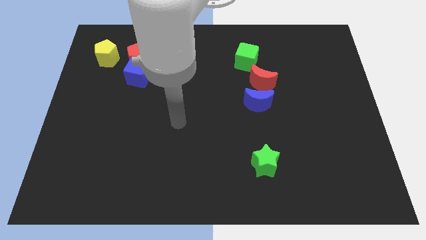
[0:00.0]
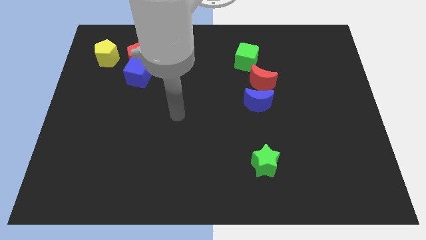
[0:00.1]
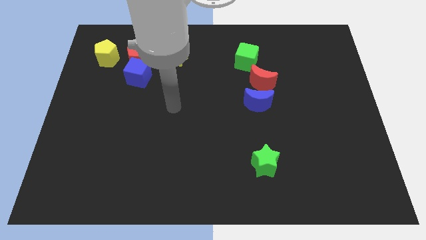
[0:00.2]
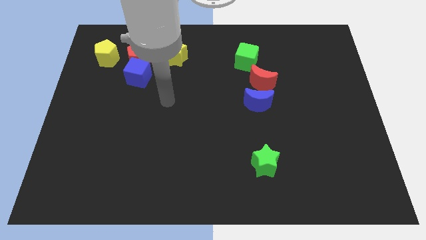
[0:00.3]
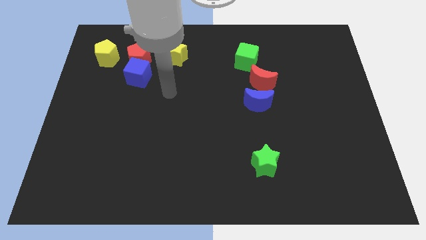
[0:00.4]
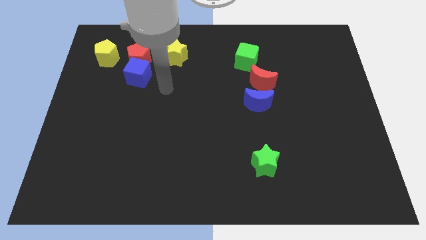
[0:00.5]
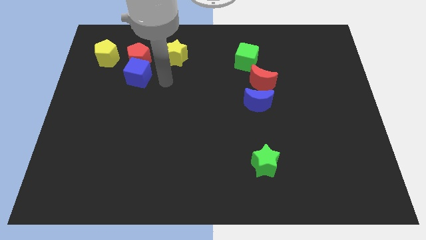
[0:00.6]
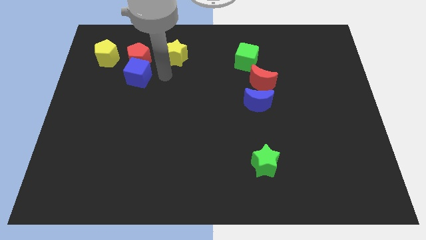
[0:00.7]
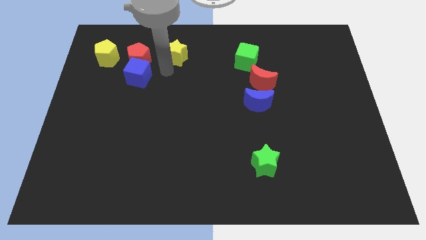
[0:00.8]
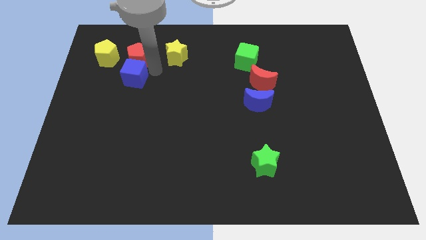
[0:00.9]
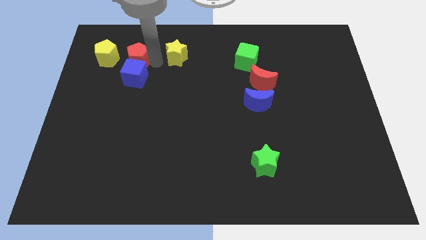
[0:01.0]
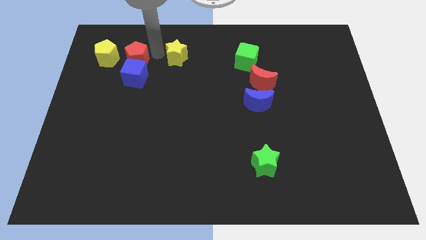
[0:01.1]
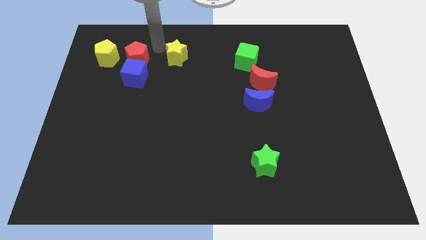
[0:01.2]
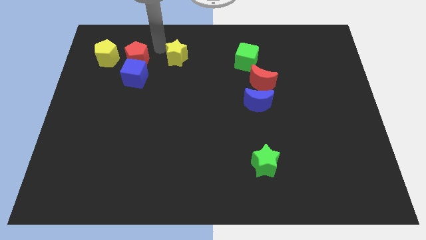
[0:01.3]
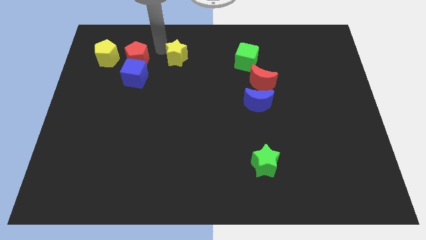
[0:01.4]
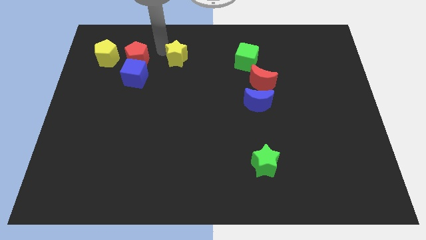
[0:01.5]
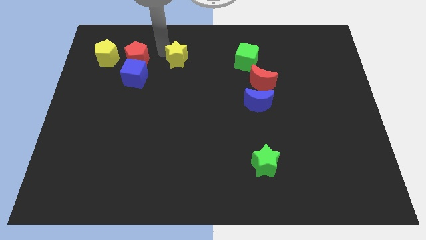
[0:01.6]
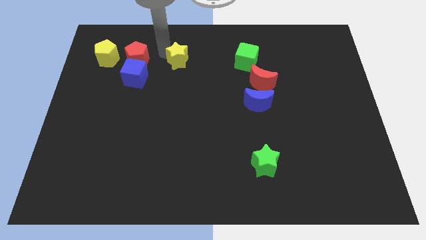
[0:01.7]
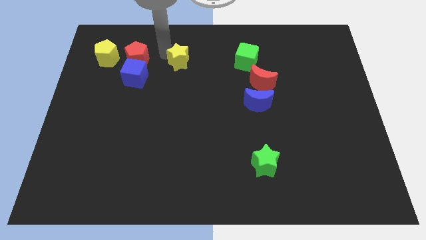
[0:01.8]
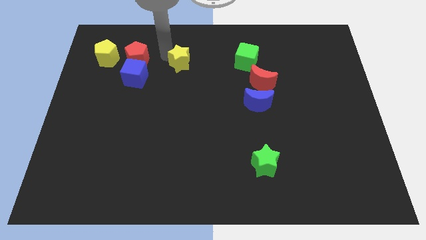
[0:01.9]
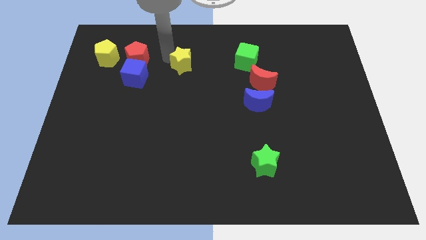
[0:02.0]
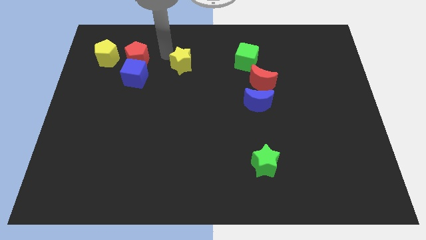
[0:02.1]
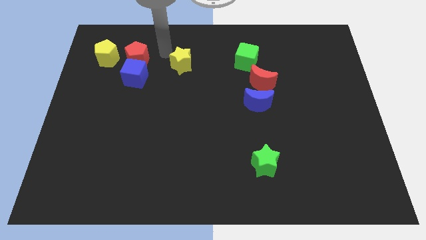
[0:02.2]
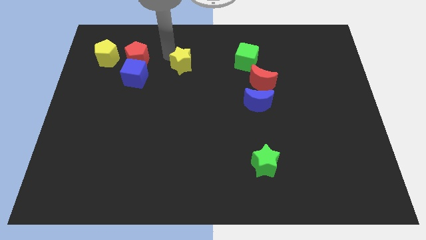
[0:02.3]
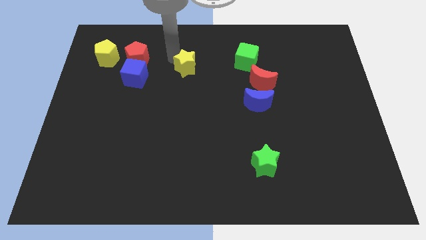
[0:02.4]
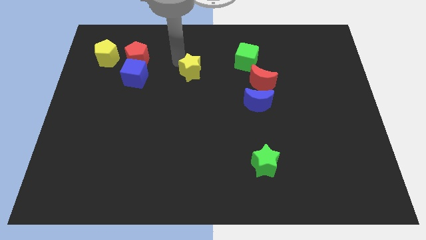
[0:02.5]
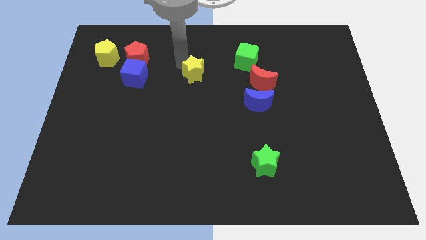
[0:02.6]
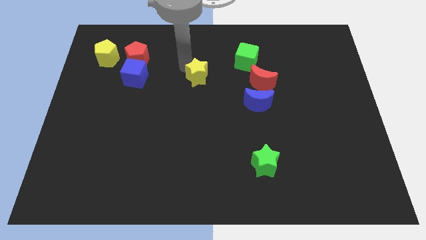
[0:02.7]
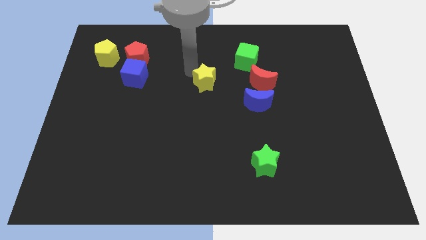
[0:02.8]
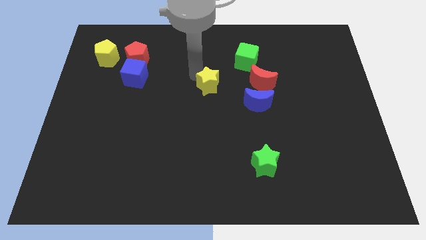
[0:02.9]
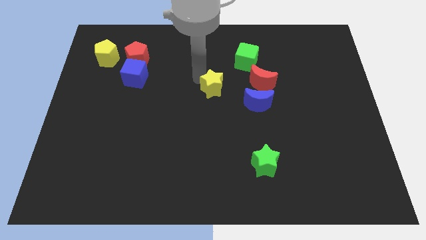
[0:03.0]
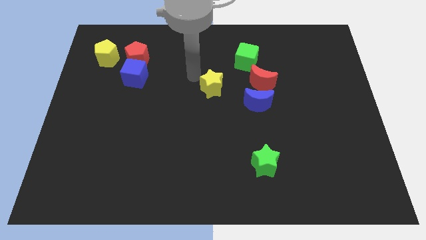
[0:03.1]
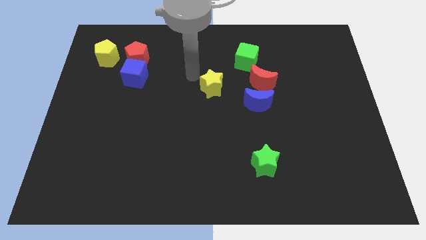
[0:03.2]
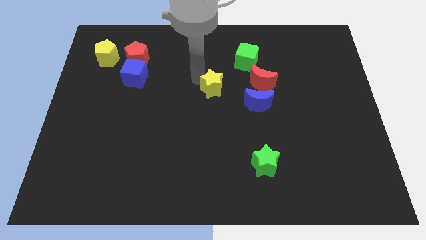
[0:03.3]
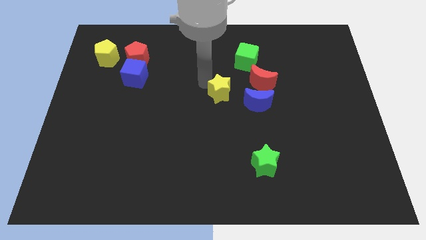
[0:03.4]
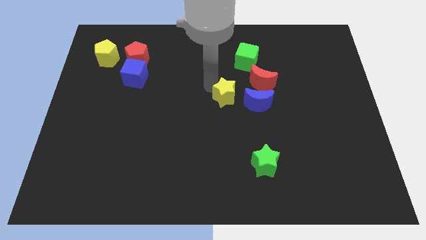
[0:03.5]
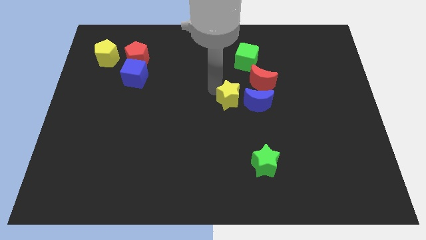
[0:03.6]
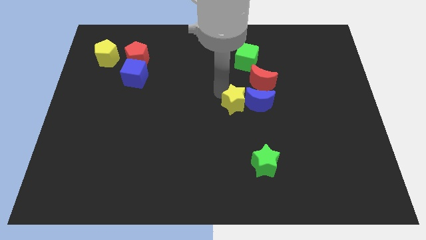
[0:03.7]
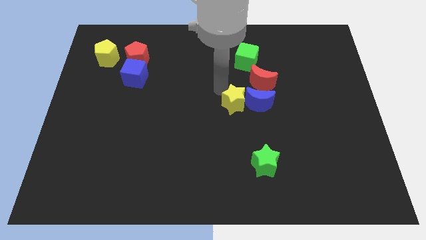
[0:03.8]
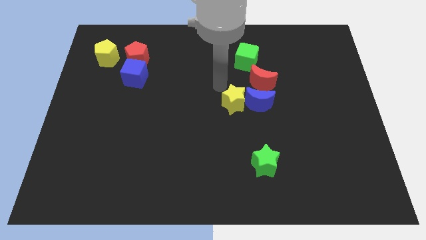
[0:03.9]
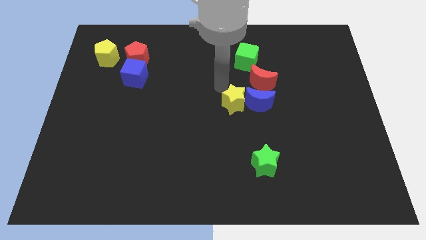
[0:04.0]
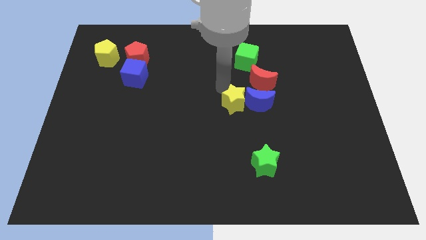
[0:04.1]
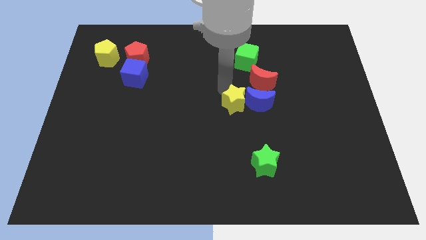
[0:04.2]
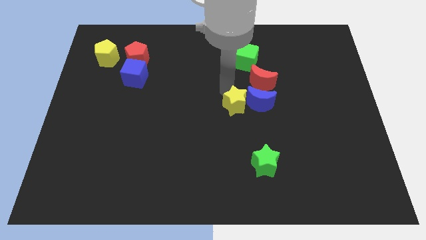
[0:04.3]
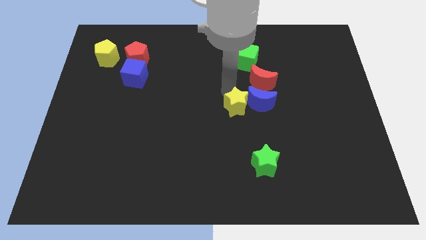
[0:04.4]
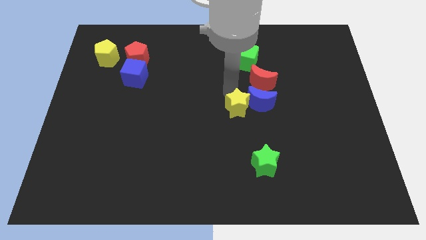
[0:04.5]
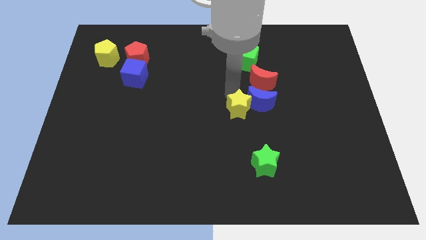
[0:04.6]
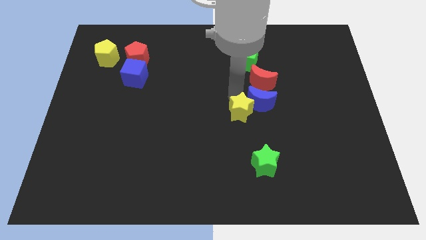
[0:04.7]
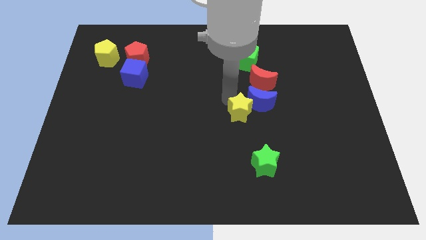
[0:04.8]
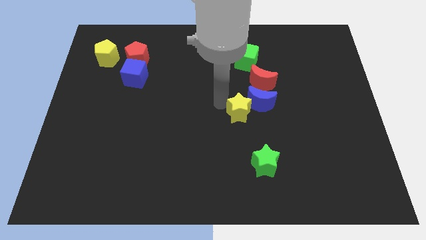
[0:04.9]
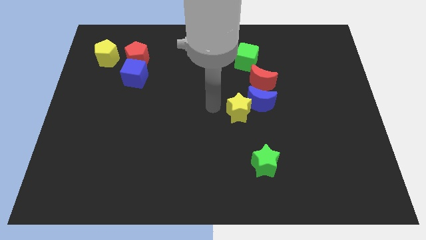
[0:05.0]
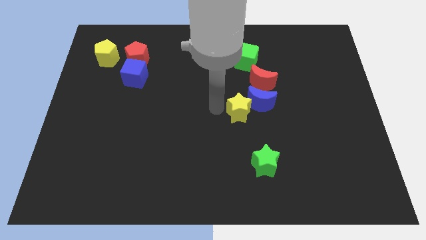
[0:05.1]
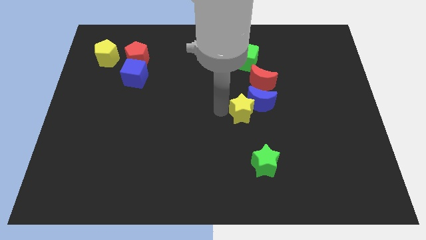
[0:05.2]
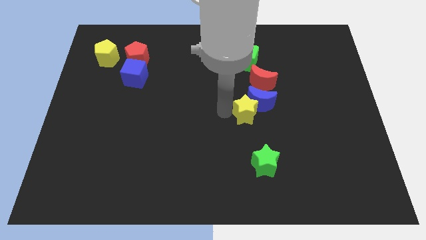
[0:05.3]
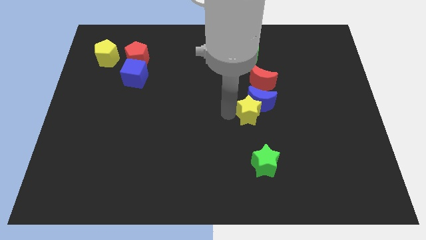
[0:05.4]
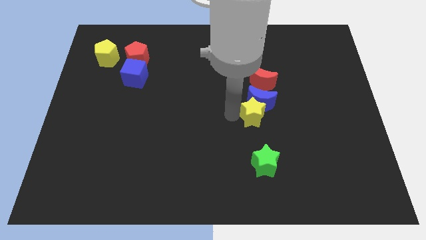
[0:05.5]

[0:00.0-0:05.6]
slide the yellow star diagonally down and to the right of the blue moon

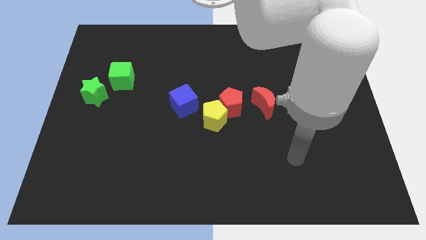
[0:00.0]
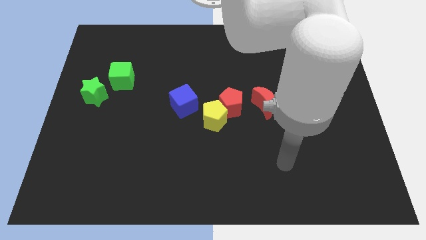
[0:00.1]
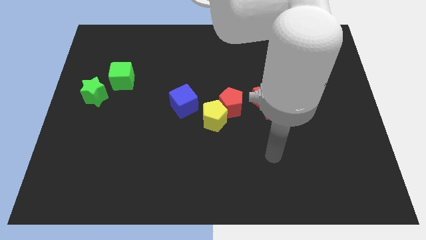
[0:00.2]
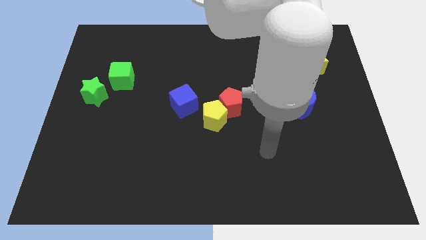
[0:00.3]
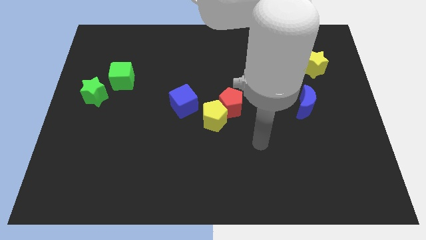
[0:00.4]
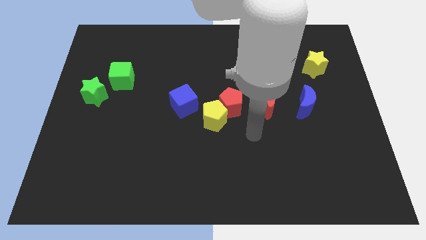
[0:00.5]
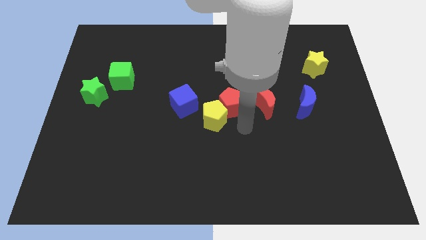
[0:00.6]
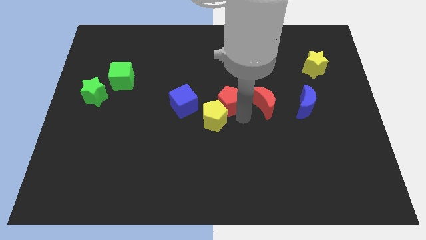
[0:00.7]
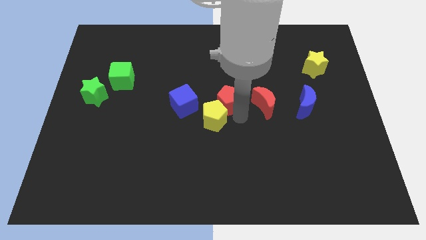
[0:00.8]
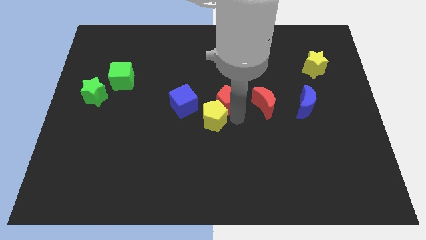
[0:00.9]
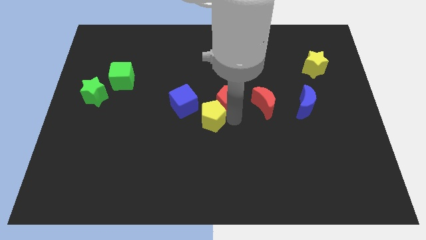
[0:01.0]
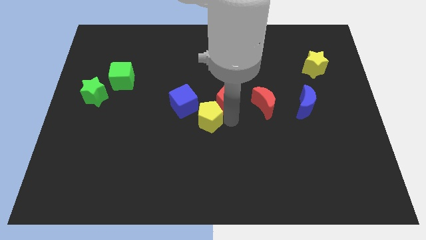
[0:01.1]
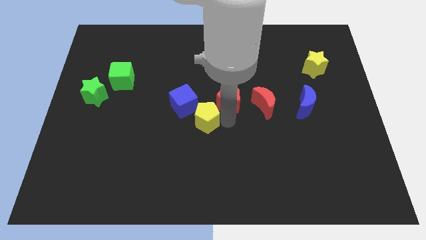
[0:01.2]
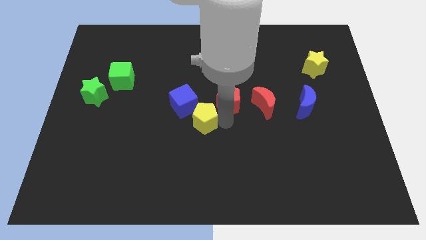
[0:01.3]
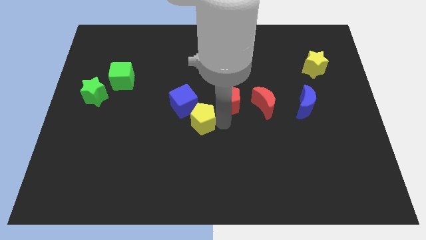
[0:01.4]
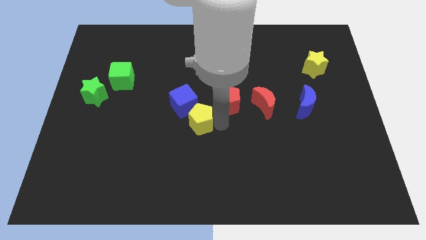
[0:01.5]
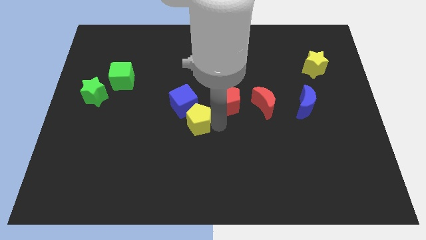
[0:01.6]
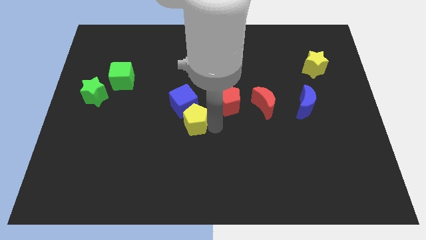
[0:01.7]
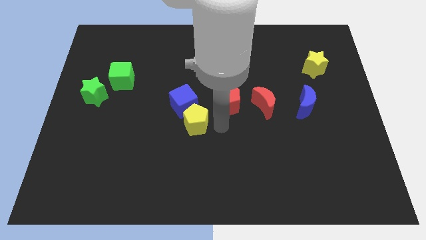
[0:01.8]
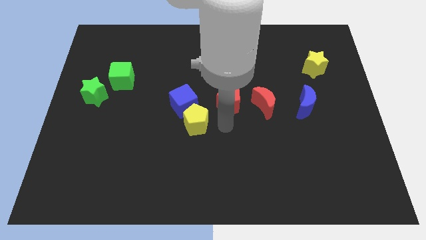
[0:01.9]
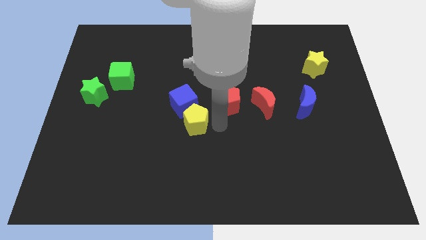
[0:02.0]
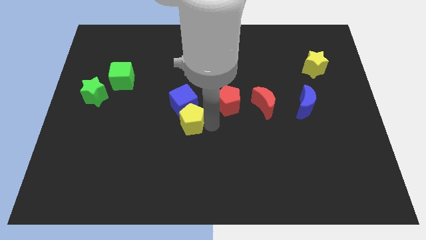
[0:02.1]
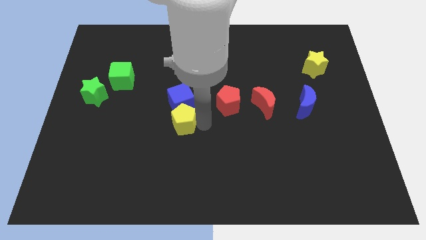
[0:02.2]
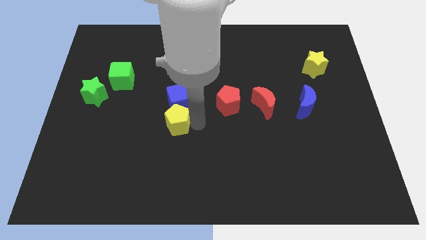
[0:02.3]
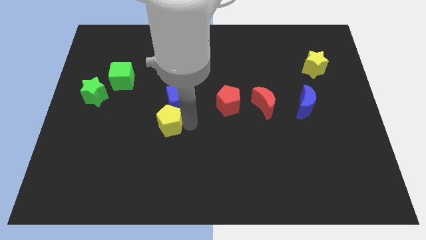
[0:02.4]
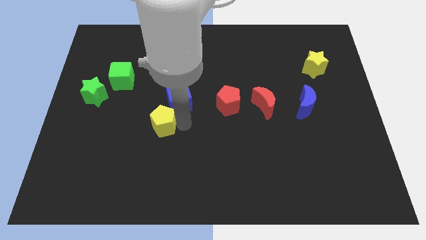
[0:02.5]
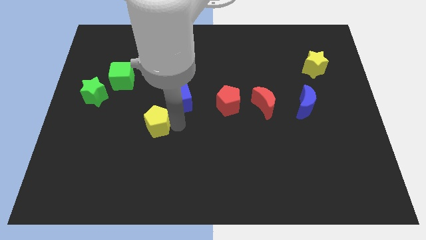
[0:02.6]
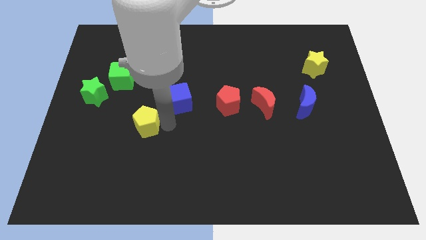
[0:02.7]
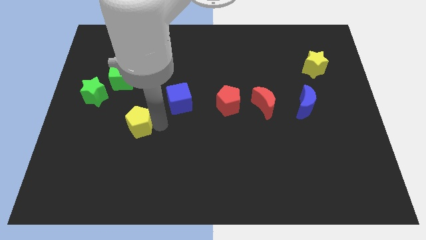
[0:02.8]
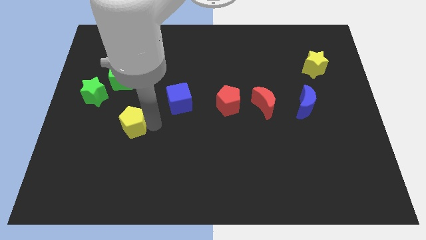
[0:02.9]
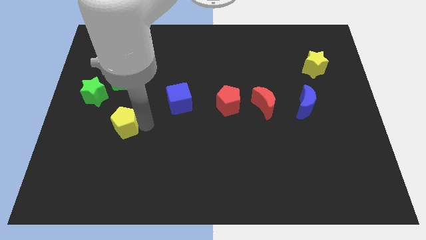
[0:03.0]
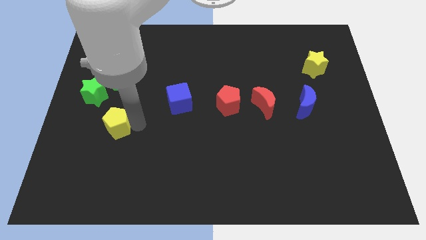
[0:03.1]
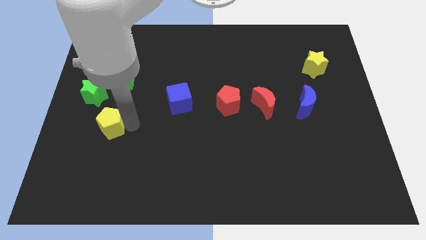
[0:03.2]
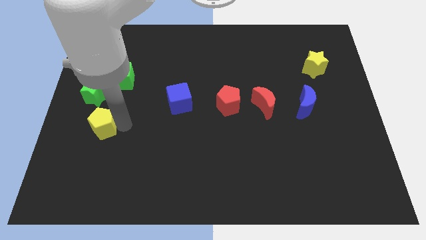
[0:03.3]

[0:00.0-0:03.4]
slide the yellow pentagon to the bottom of the green star
